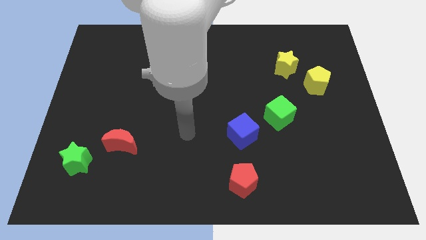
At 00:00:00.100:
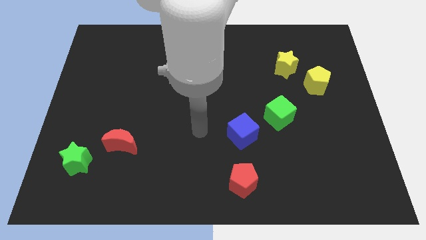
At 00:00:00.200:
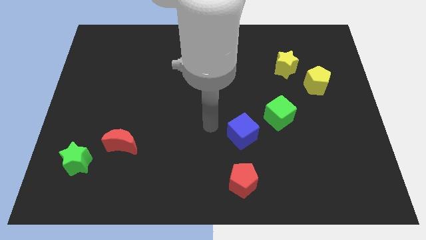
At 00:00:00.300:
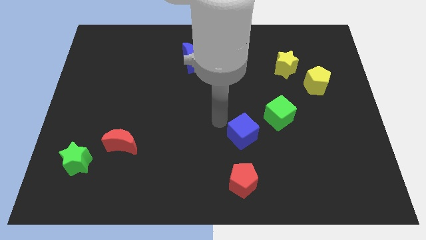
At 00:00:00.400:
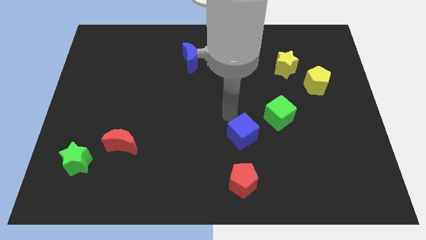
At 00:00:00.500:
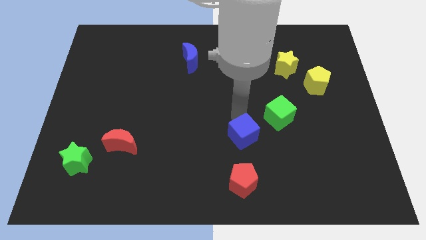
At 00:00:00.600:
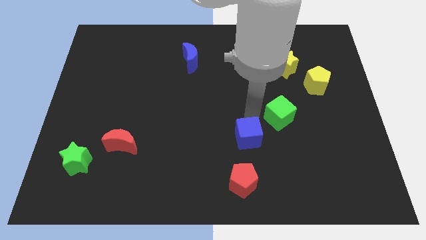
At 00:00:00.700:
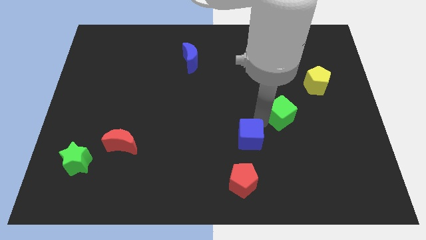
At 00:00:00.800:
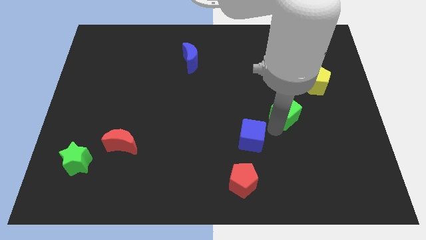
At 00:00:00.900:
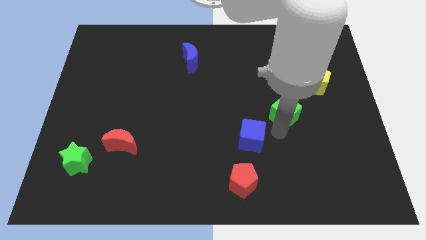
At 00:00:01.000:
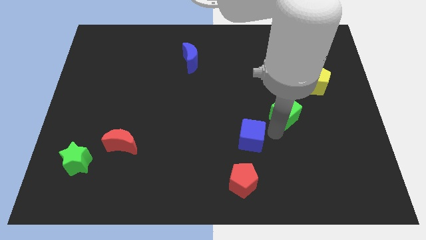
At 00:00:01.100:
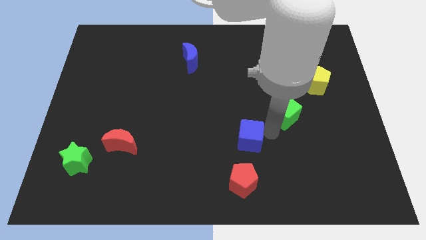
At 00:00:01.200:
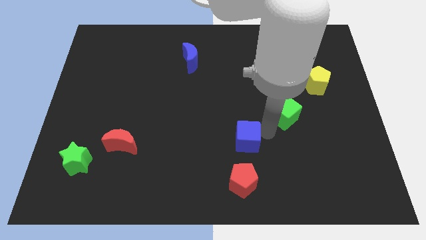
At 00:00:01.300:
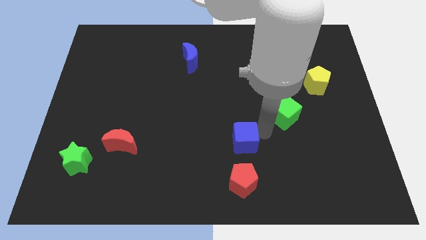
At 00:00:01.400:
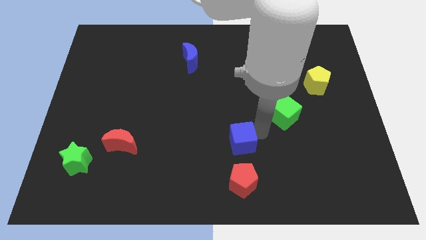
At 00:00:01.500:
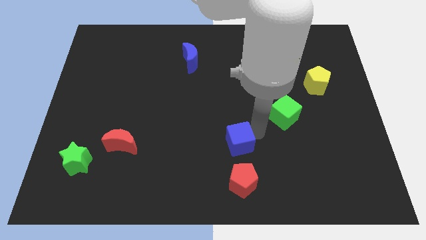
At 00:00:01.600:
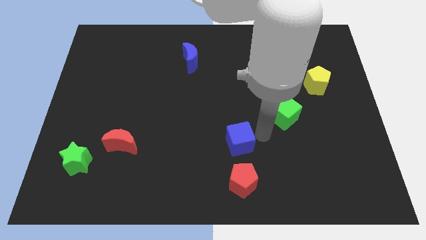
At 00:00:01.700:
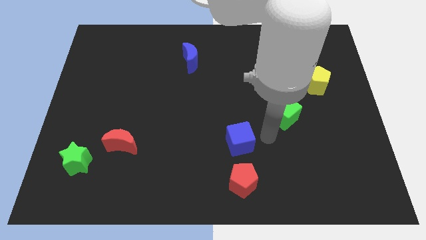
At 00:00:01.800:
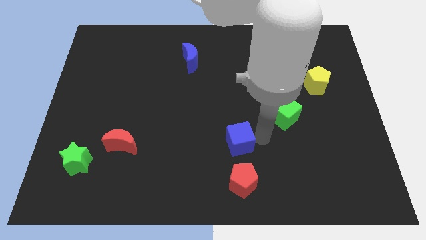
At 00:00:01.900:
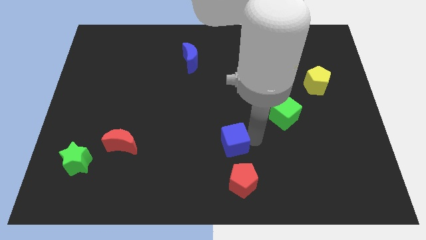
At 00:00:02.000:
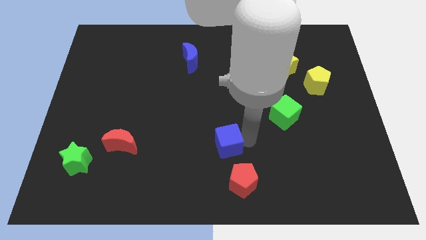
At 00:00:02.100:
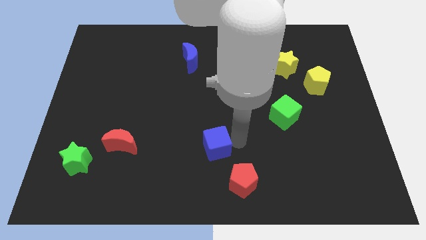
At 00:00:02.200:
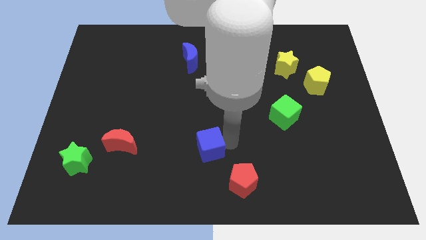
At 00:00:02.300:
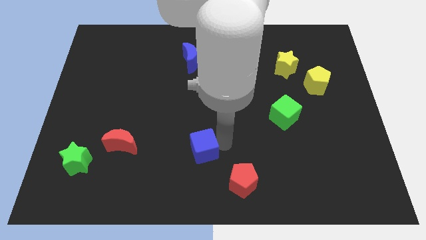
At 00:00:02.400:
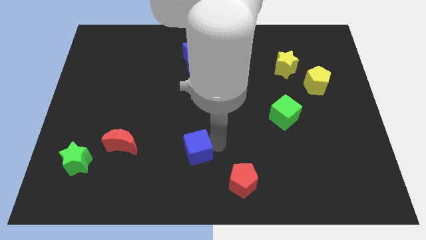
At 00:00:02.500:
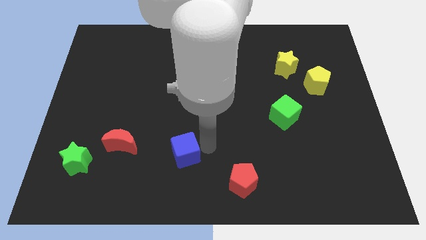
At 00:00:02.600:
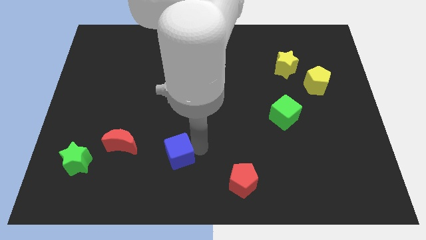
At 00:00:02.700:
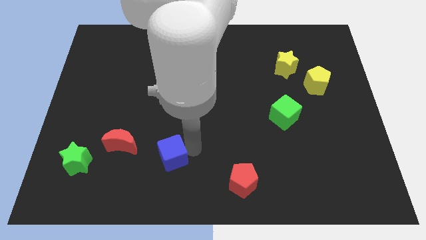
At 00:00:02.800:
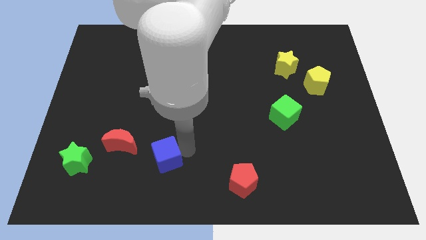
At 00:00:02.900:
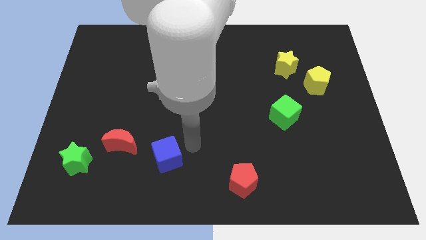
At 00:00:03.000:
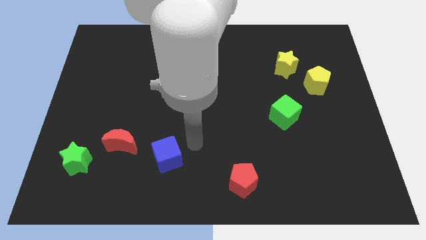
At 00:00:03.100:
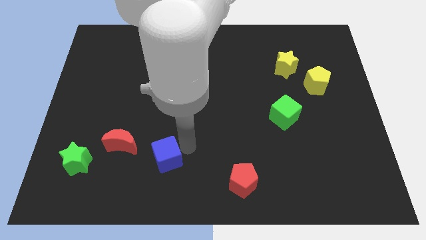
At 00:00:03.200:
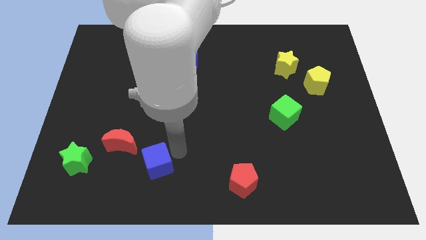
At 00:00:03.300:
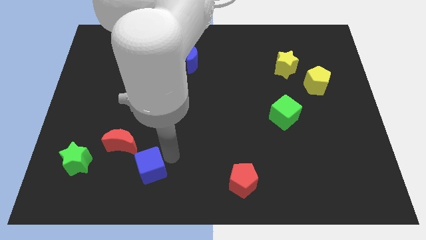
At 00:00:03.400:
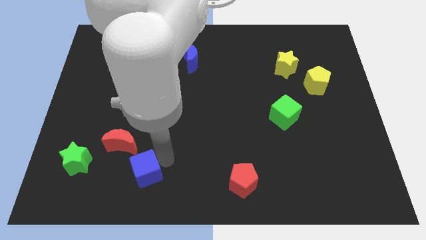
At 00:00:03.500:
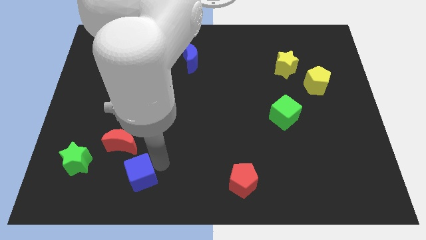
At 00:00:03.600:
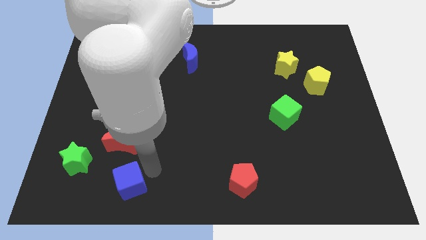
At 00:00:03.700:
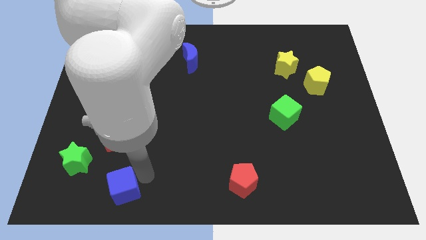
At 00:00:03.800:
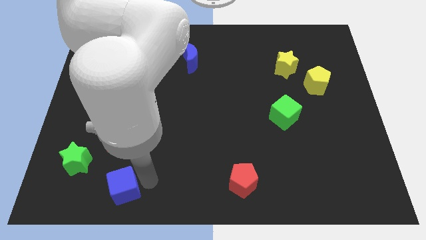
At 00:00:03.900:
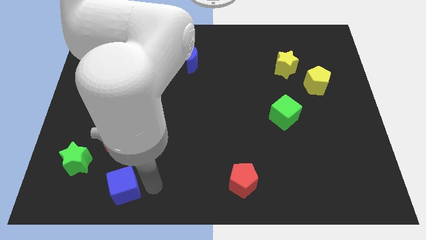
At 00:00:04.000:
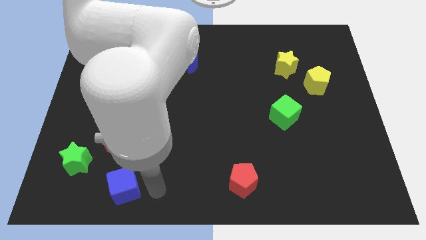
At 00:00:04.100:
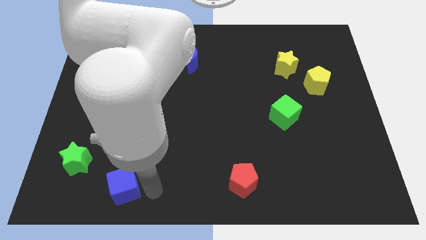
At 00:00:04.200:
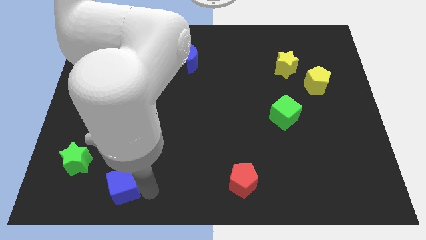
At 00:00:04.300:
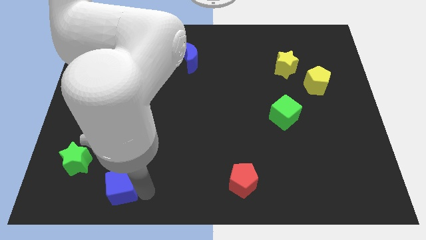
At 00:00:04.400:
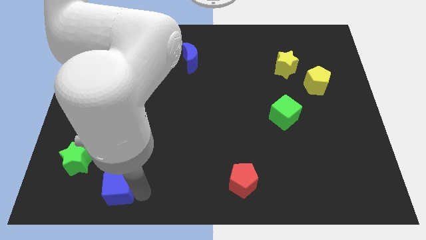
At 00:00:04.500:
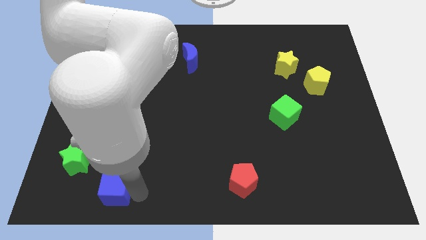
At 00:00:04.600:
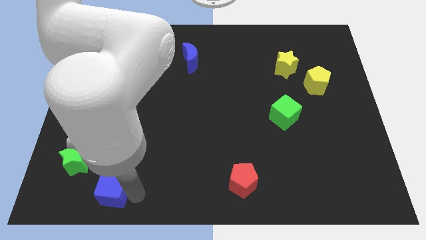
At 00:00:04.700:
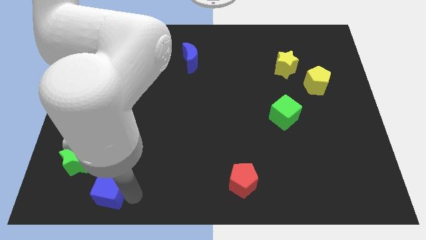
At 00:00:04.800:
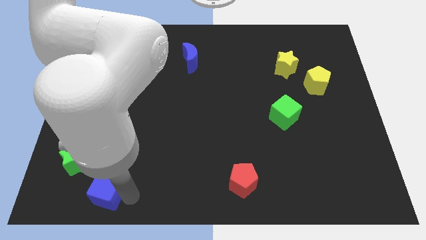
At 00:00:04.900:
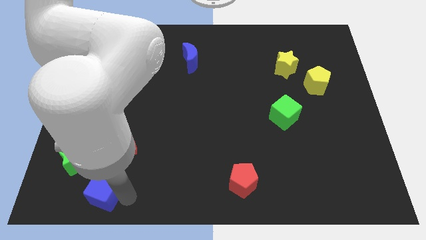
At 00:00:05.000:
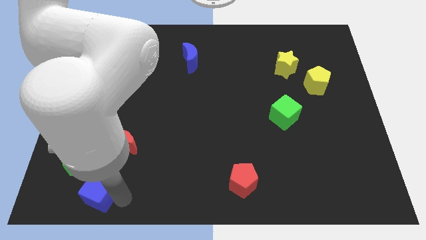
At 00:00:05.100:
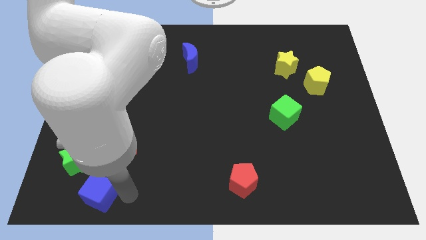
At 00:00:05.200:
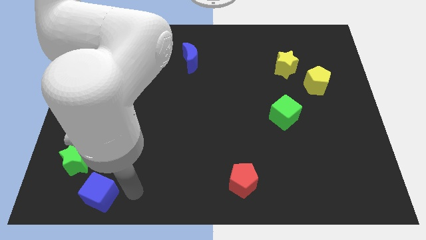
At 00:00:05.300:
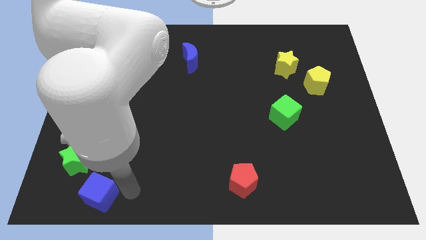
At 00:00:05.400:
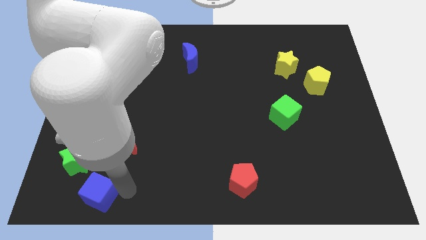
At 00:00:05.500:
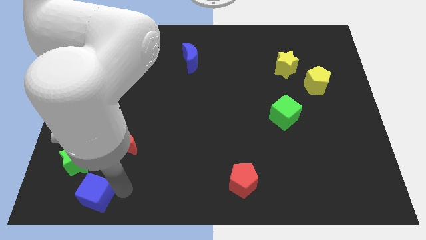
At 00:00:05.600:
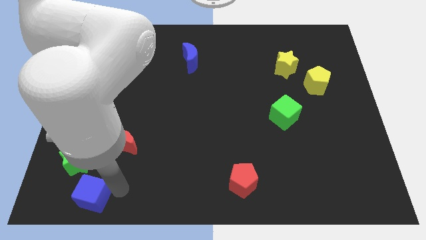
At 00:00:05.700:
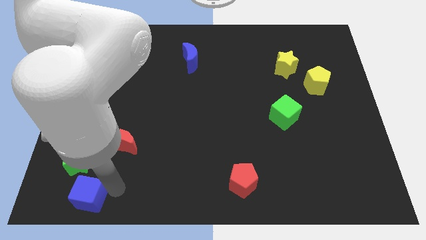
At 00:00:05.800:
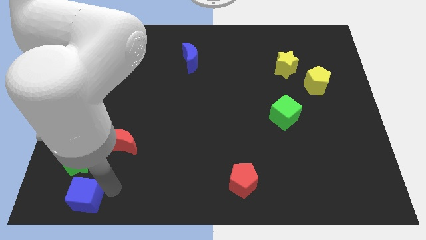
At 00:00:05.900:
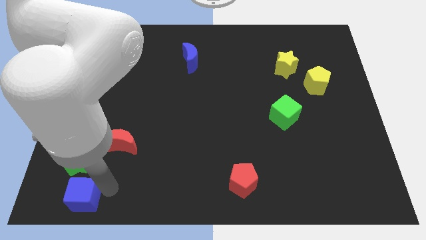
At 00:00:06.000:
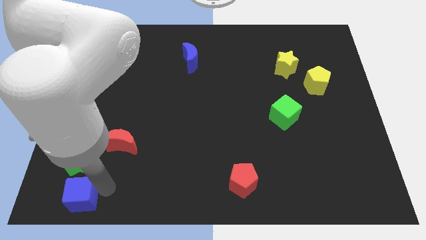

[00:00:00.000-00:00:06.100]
slide the blue cube to the bottom left corner

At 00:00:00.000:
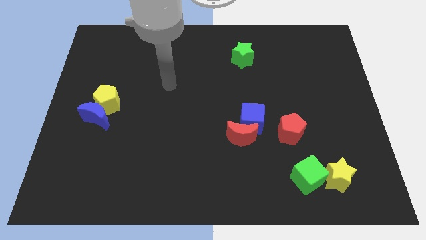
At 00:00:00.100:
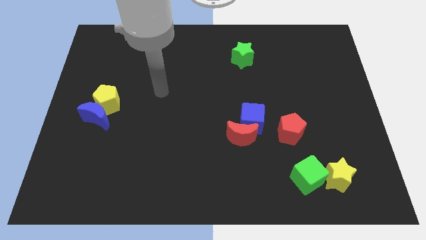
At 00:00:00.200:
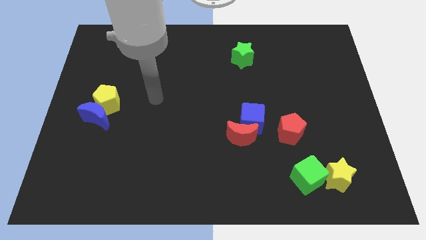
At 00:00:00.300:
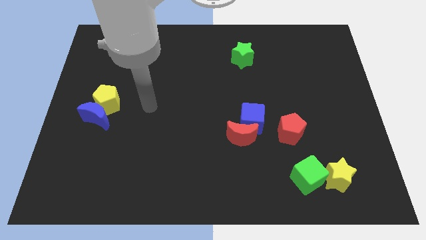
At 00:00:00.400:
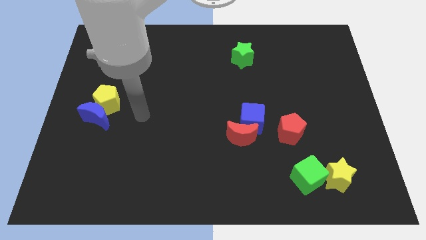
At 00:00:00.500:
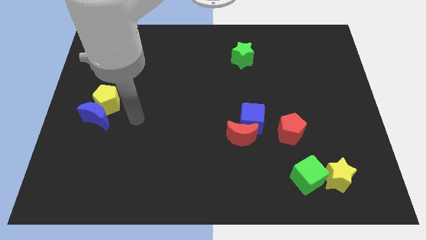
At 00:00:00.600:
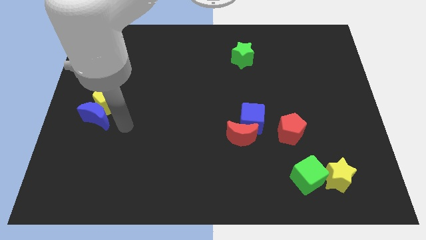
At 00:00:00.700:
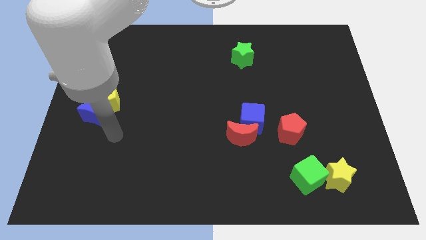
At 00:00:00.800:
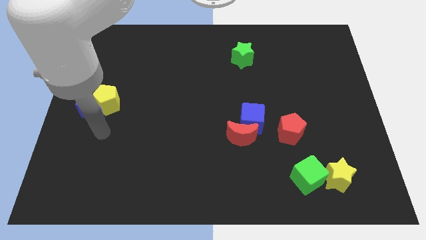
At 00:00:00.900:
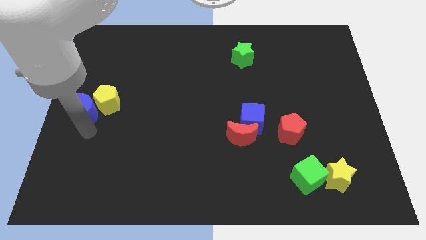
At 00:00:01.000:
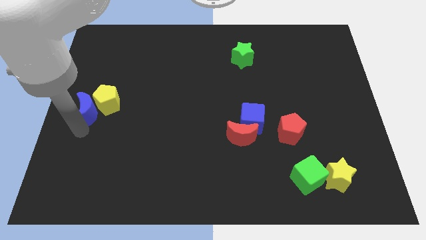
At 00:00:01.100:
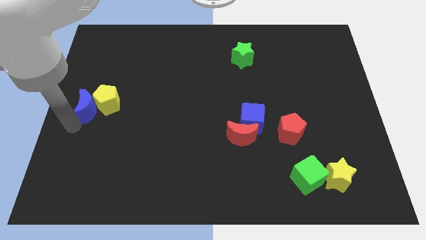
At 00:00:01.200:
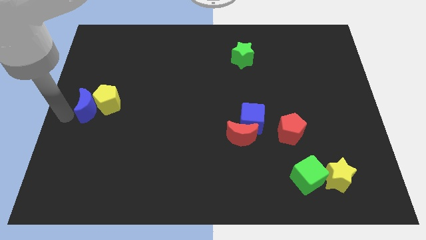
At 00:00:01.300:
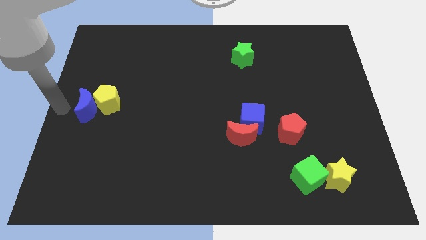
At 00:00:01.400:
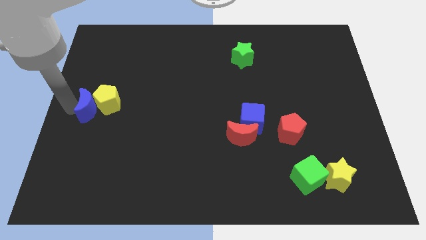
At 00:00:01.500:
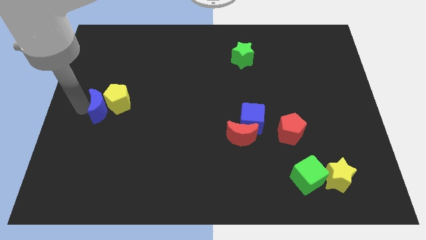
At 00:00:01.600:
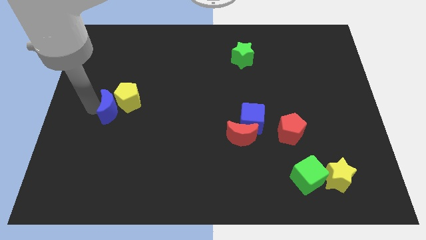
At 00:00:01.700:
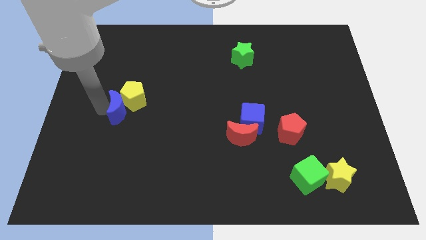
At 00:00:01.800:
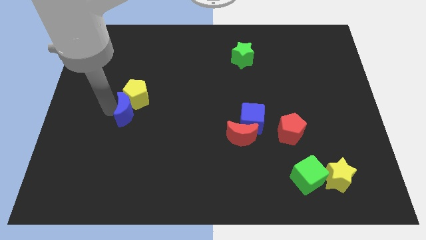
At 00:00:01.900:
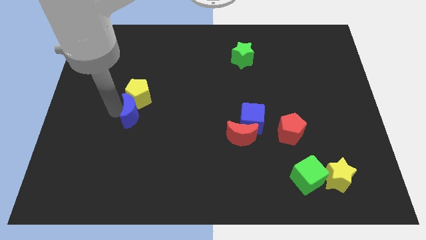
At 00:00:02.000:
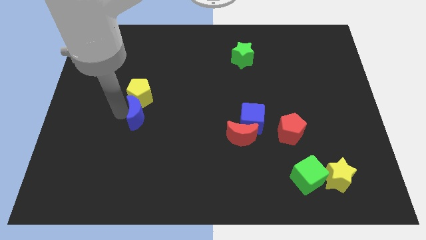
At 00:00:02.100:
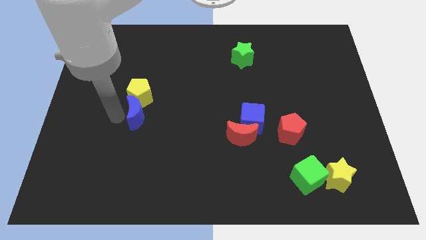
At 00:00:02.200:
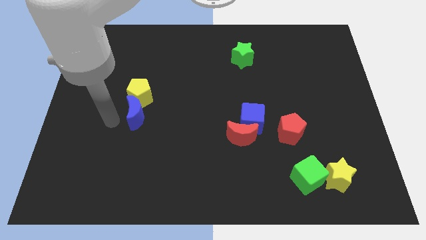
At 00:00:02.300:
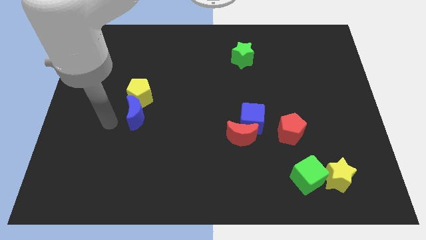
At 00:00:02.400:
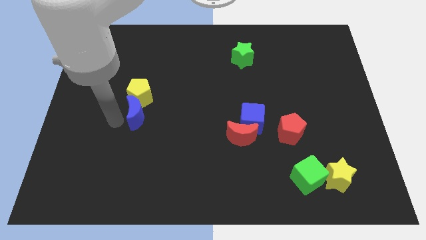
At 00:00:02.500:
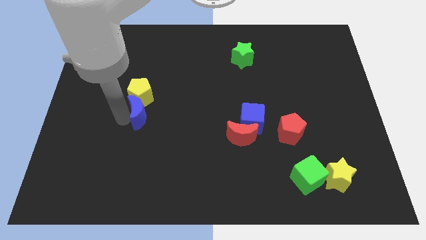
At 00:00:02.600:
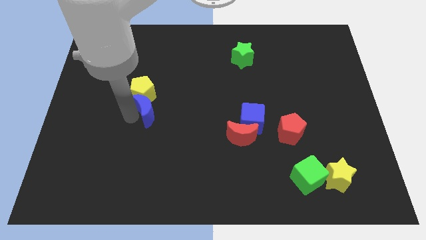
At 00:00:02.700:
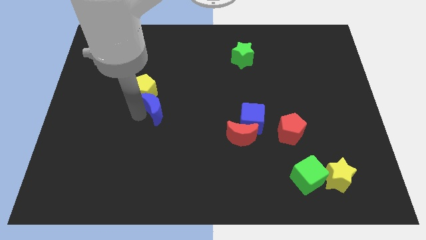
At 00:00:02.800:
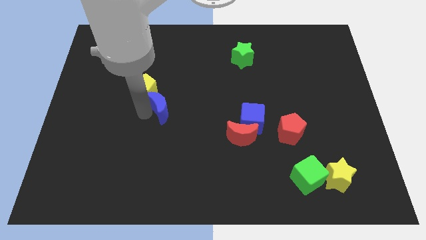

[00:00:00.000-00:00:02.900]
slide the blue moon to the center
